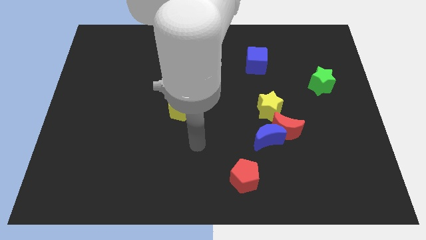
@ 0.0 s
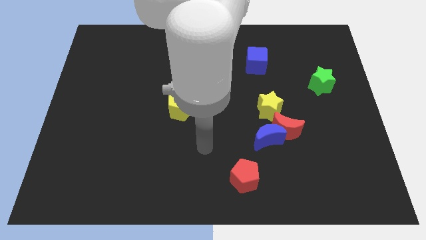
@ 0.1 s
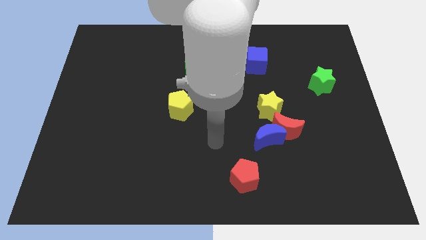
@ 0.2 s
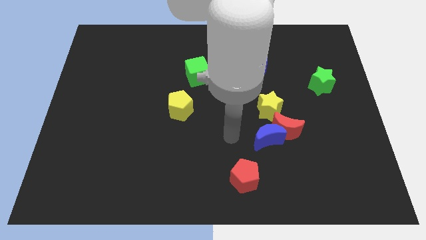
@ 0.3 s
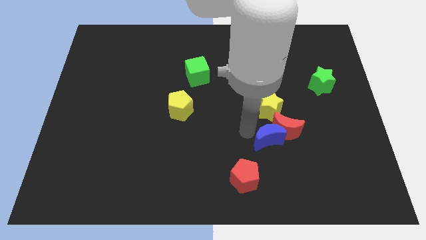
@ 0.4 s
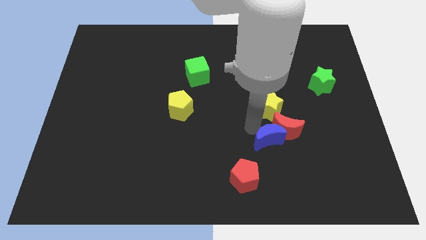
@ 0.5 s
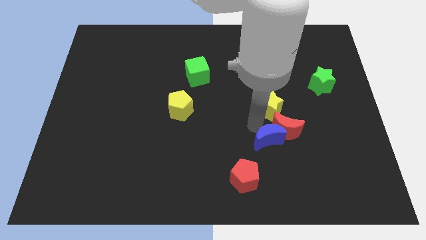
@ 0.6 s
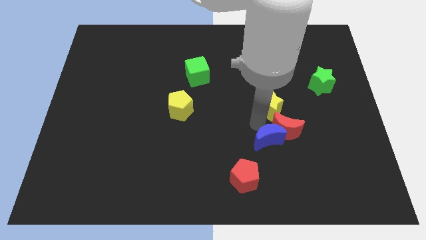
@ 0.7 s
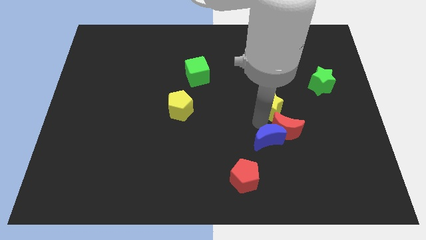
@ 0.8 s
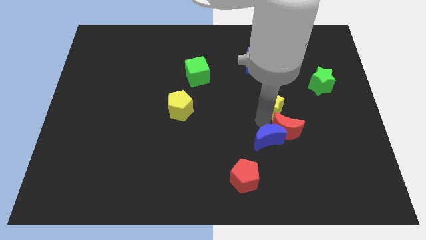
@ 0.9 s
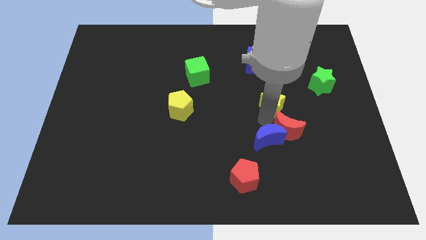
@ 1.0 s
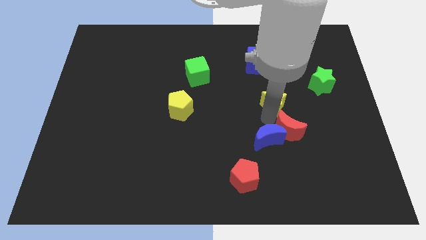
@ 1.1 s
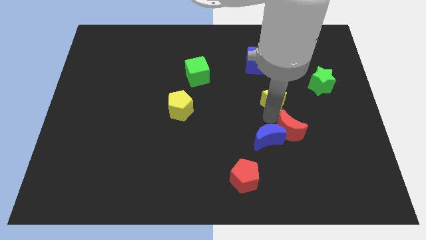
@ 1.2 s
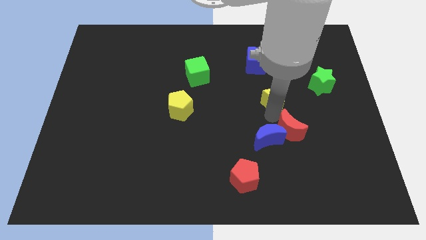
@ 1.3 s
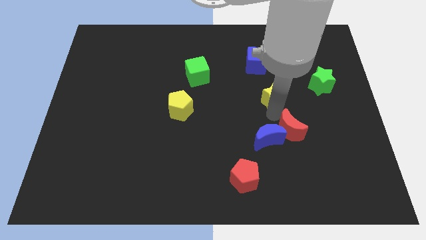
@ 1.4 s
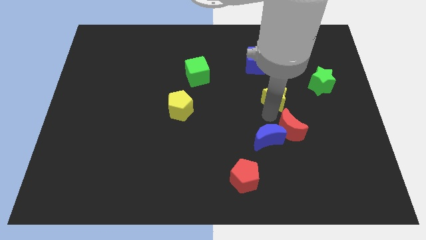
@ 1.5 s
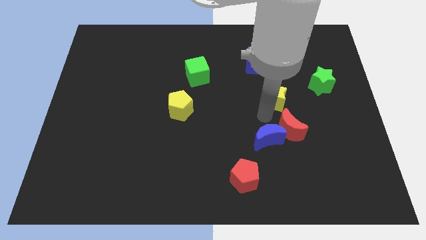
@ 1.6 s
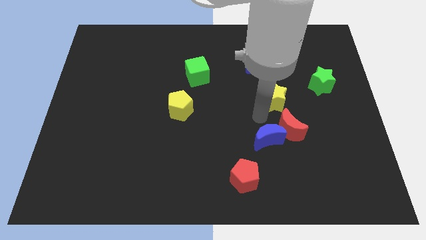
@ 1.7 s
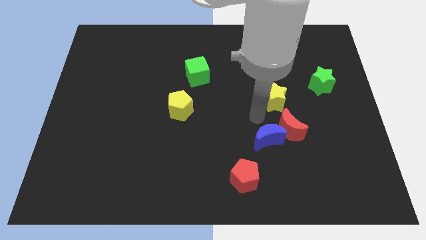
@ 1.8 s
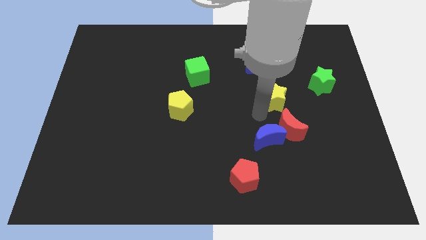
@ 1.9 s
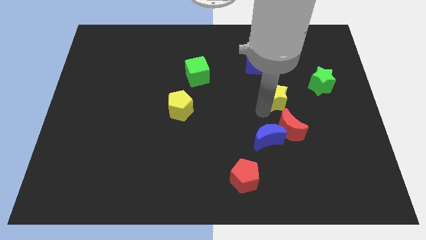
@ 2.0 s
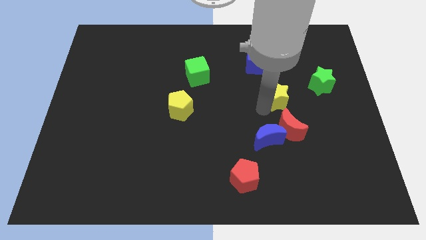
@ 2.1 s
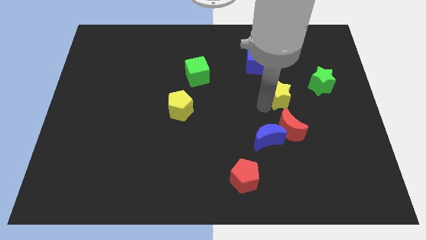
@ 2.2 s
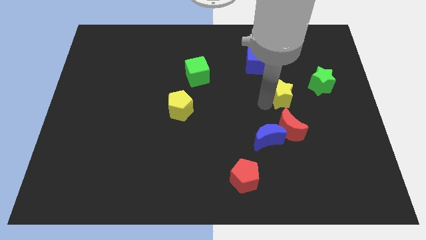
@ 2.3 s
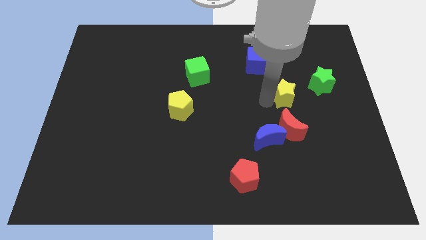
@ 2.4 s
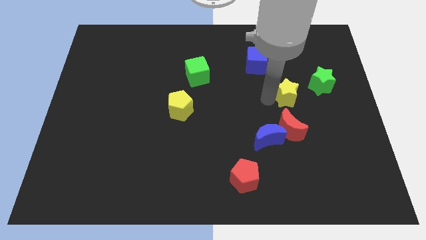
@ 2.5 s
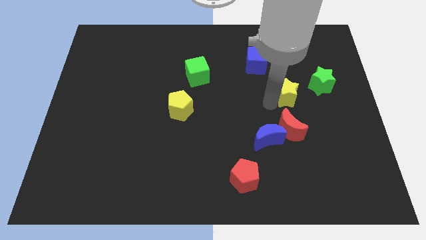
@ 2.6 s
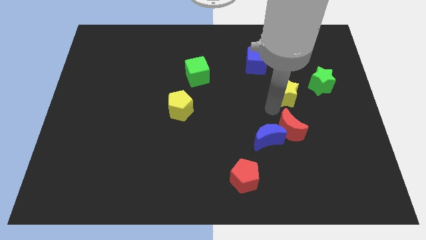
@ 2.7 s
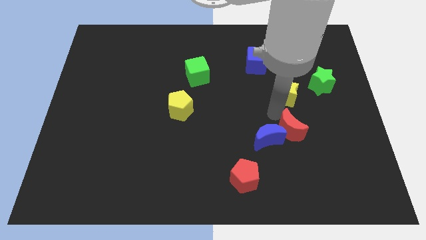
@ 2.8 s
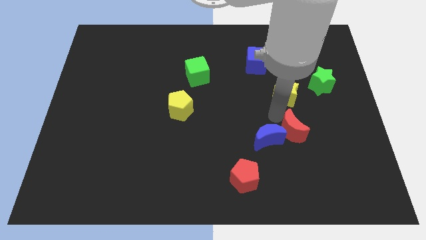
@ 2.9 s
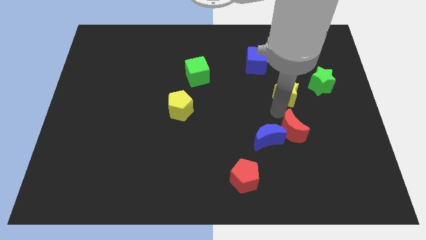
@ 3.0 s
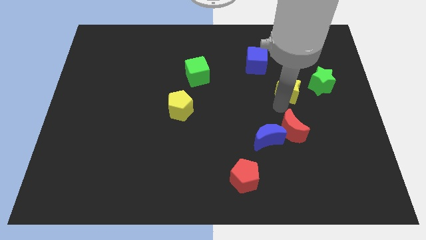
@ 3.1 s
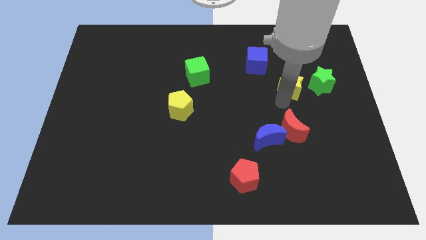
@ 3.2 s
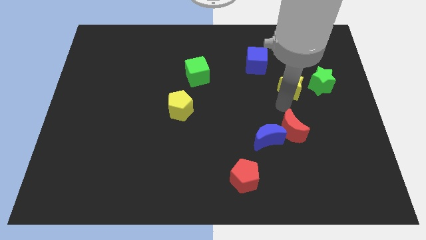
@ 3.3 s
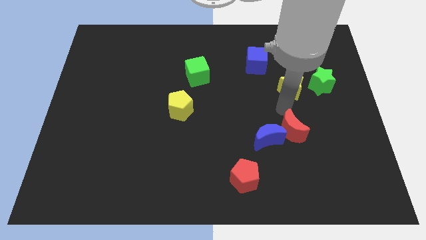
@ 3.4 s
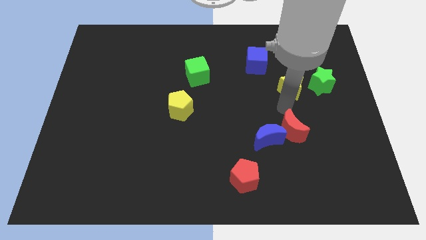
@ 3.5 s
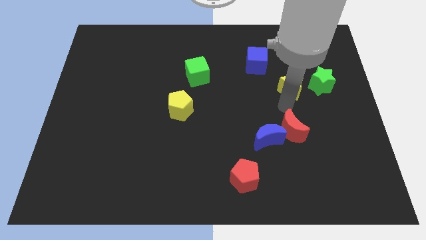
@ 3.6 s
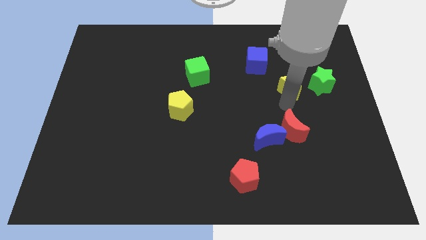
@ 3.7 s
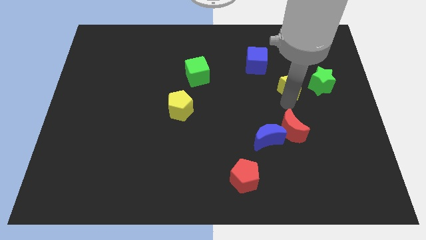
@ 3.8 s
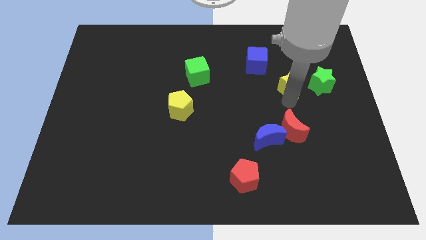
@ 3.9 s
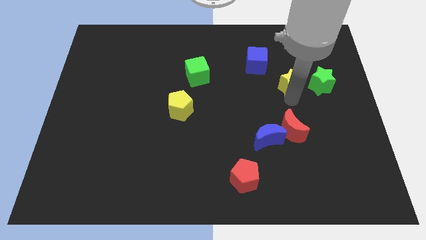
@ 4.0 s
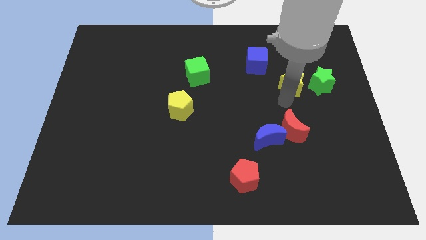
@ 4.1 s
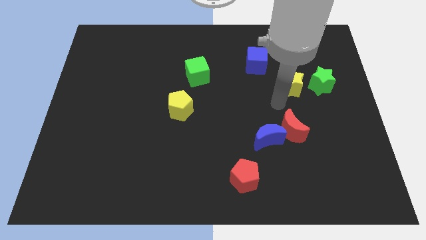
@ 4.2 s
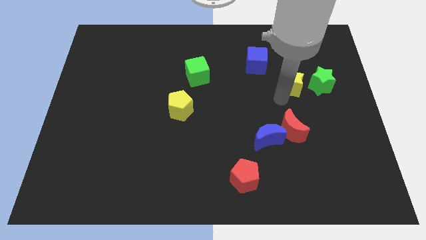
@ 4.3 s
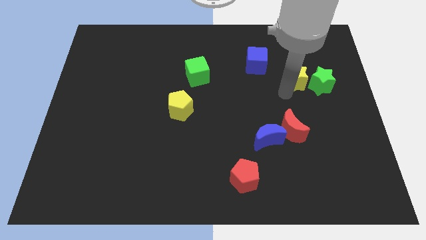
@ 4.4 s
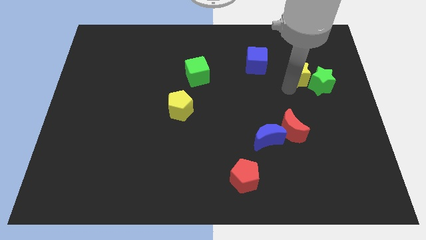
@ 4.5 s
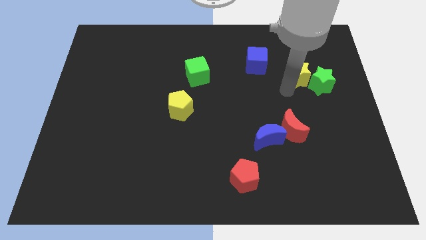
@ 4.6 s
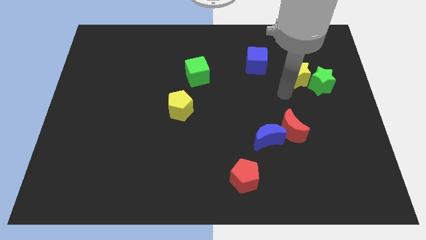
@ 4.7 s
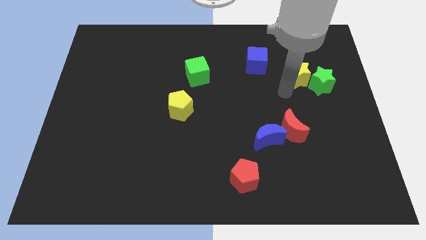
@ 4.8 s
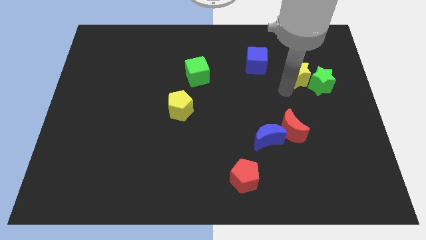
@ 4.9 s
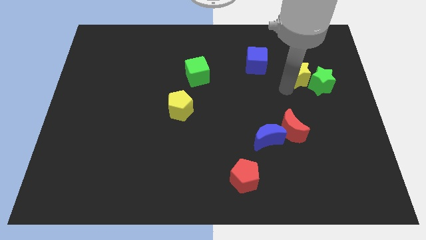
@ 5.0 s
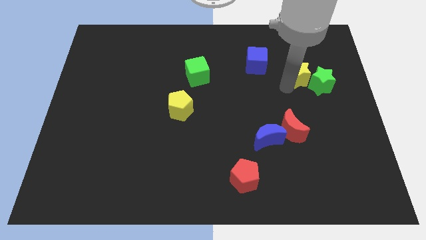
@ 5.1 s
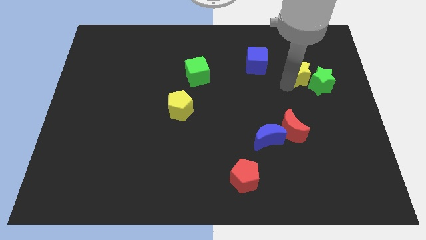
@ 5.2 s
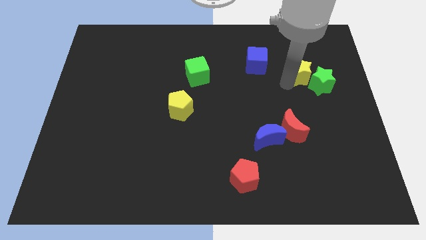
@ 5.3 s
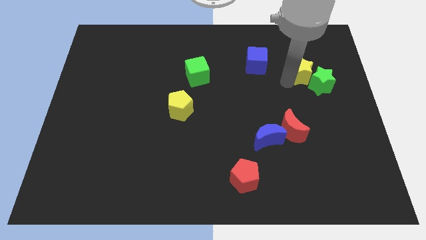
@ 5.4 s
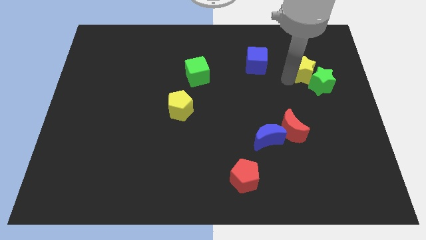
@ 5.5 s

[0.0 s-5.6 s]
slide the yellow star to the top side of the green star

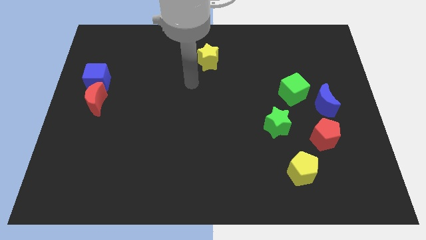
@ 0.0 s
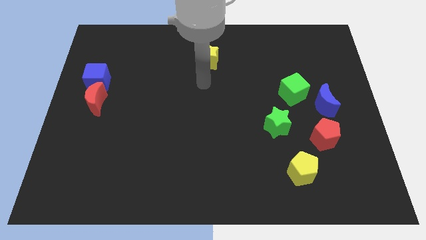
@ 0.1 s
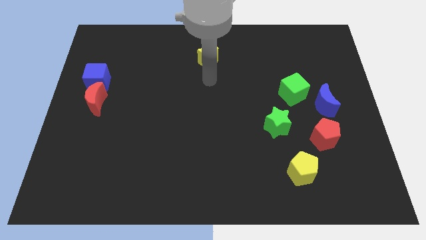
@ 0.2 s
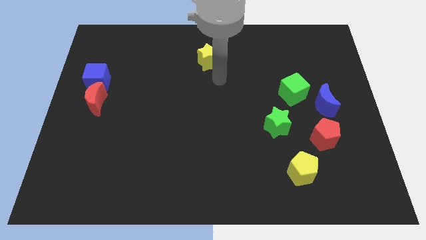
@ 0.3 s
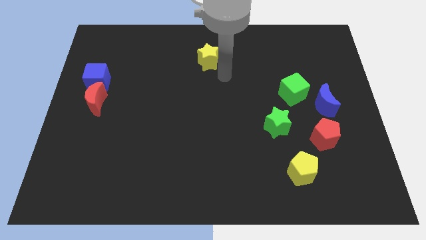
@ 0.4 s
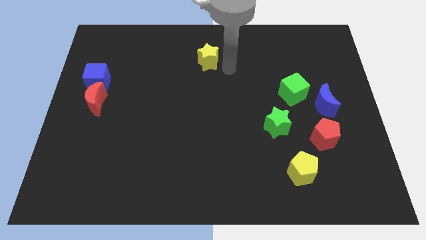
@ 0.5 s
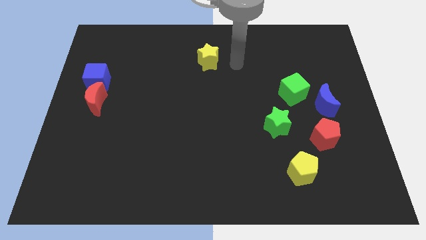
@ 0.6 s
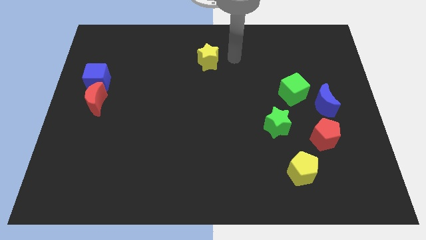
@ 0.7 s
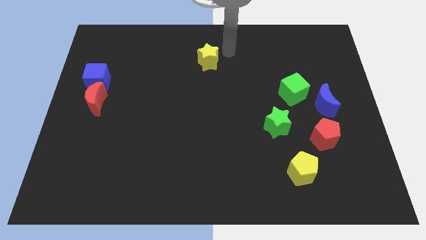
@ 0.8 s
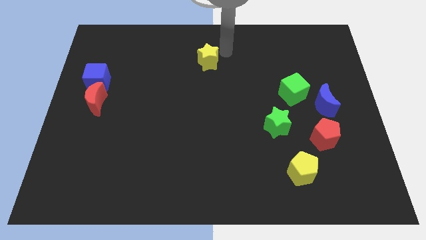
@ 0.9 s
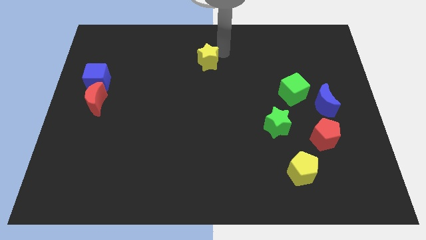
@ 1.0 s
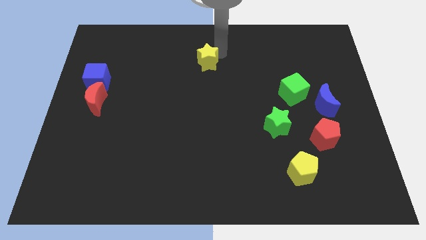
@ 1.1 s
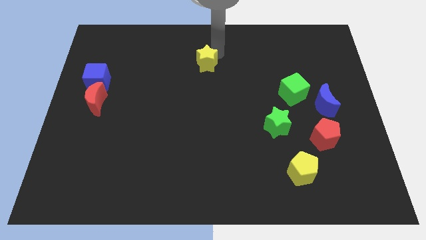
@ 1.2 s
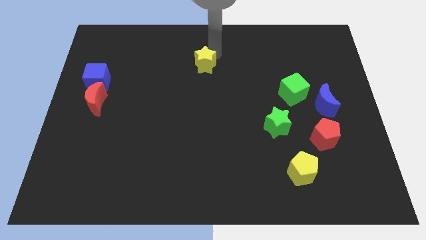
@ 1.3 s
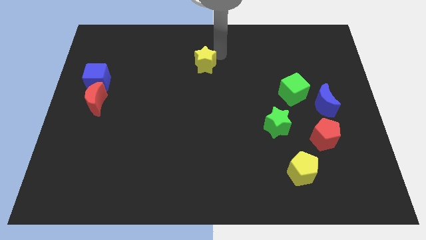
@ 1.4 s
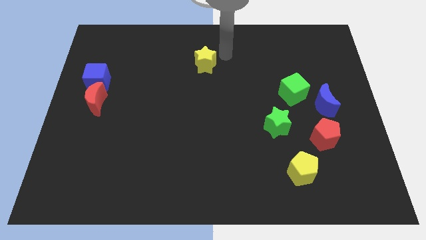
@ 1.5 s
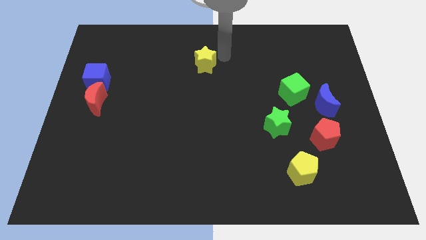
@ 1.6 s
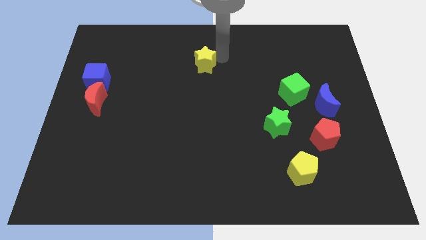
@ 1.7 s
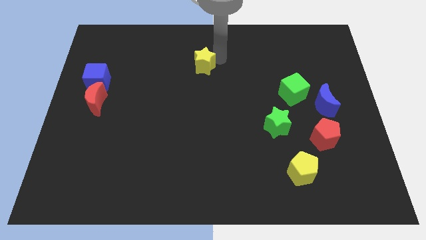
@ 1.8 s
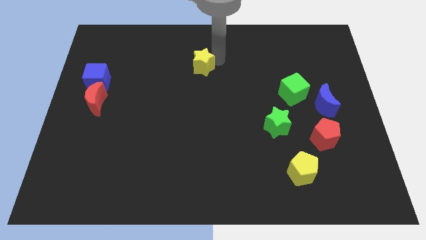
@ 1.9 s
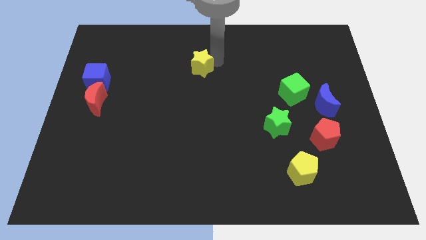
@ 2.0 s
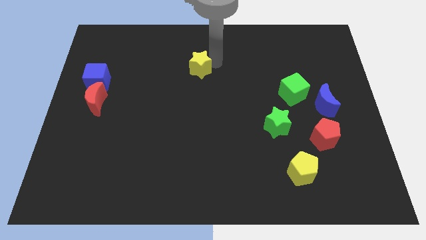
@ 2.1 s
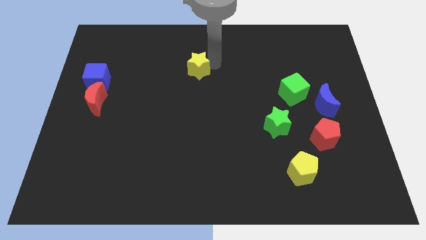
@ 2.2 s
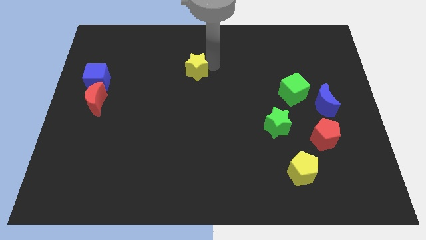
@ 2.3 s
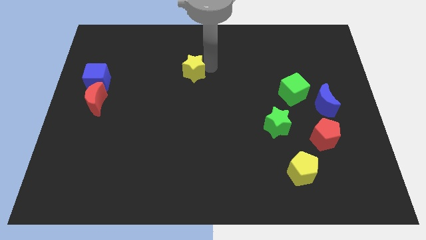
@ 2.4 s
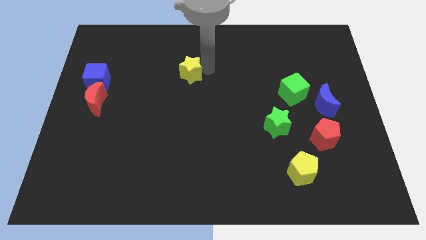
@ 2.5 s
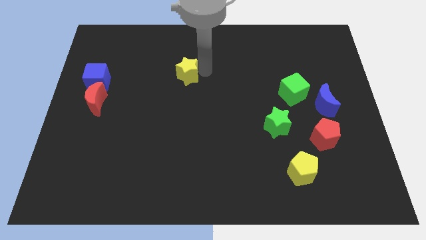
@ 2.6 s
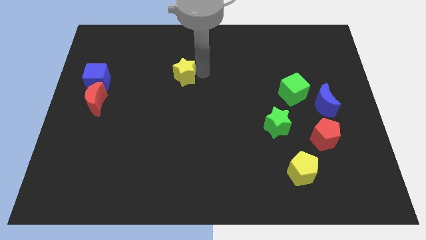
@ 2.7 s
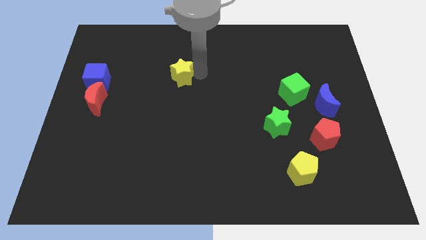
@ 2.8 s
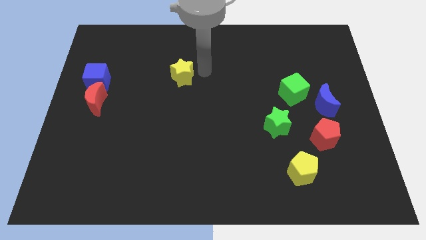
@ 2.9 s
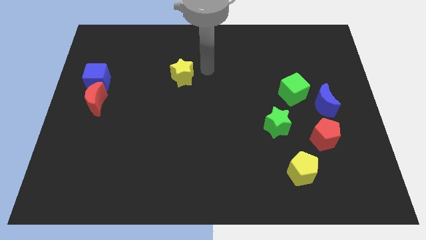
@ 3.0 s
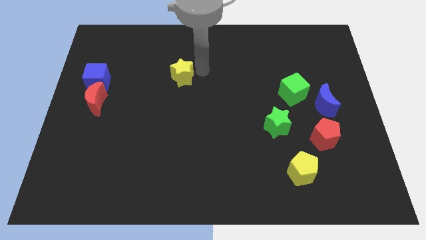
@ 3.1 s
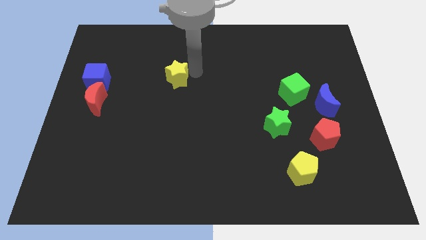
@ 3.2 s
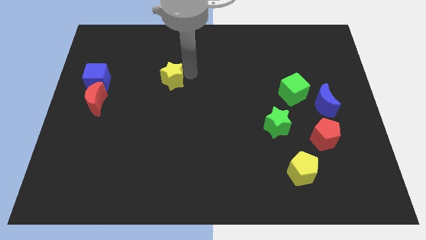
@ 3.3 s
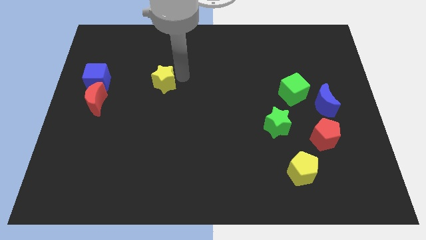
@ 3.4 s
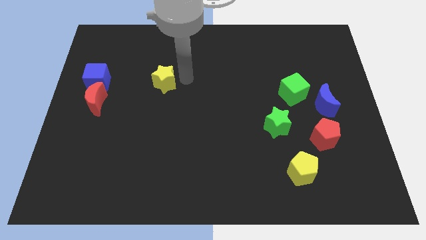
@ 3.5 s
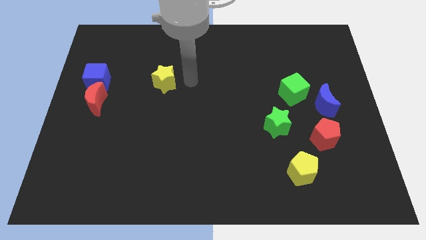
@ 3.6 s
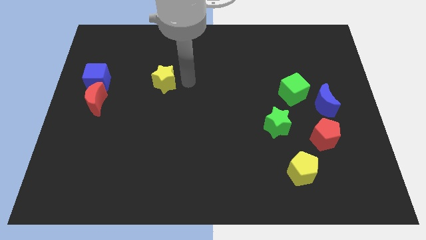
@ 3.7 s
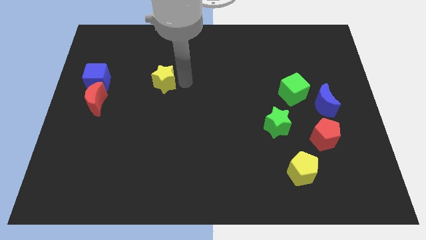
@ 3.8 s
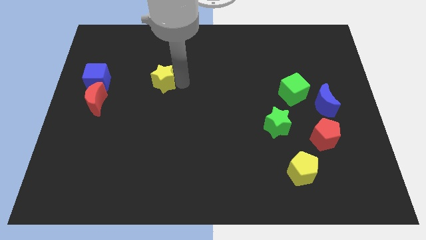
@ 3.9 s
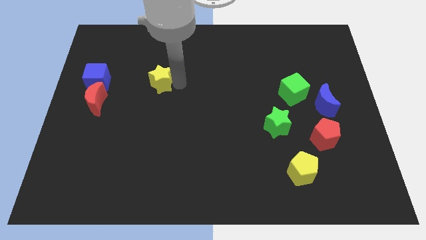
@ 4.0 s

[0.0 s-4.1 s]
move the yellow star just right of the blue cube
